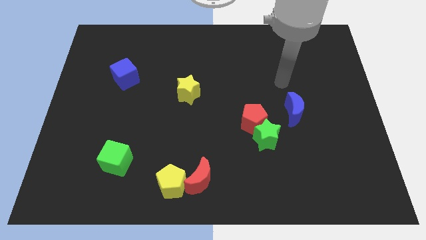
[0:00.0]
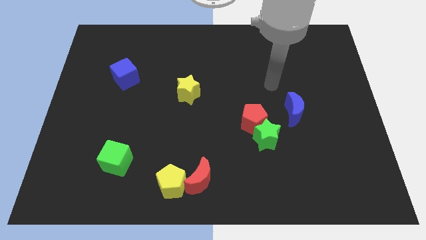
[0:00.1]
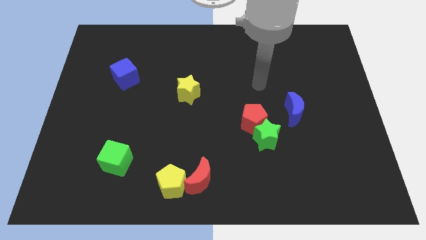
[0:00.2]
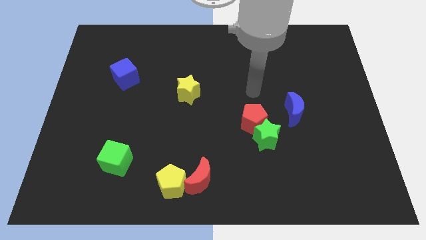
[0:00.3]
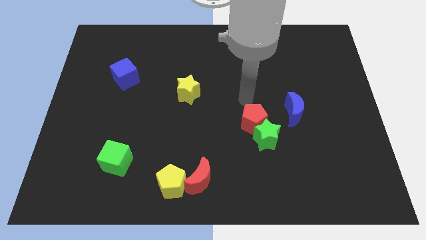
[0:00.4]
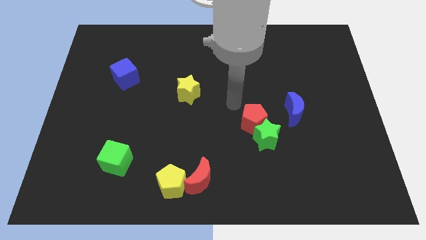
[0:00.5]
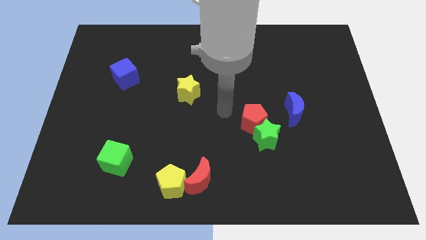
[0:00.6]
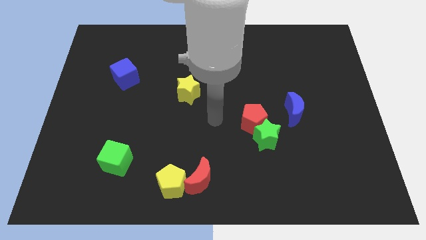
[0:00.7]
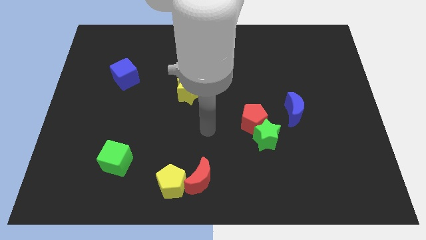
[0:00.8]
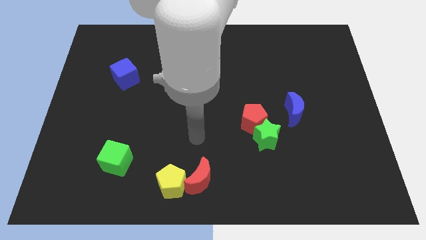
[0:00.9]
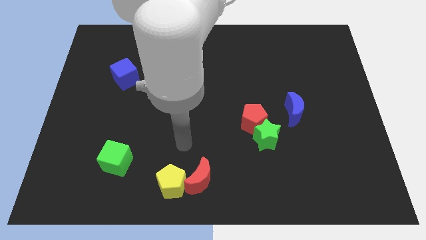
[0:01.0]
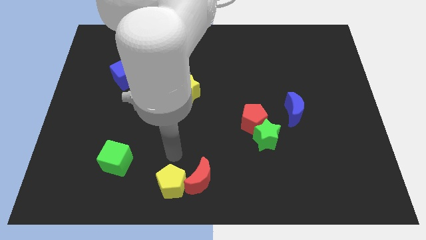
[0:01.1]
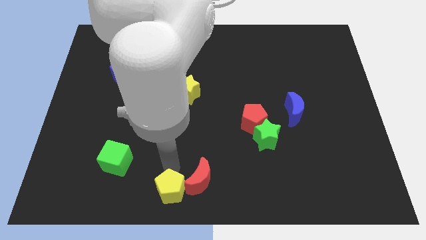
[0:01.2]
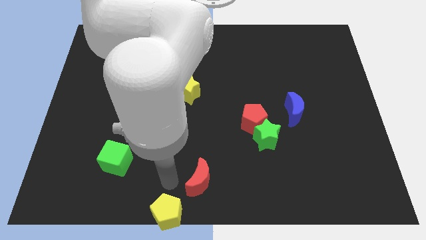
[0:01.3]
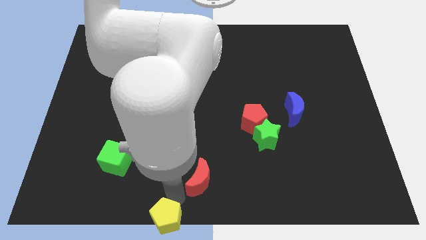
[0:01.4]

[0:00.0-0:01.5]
move the red moon away from the yellow pentagon

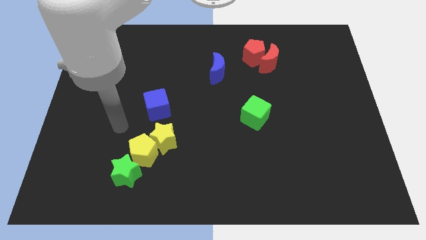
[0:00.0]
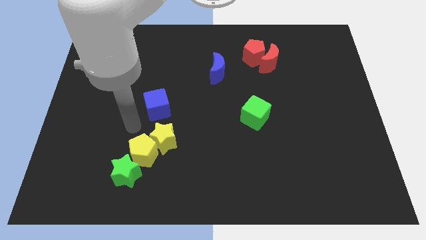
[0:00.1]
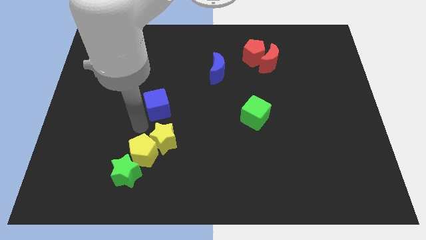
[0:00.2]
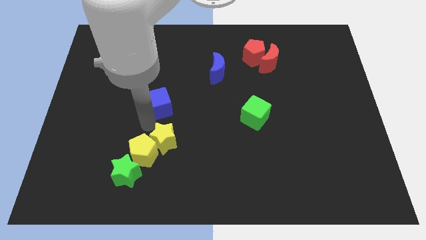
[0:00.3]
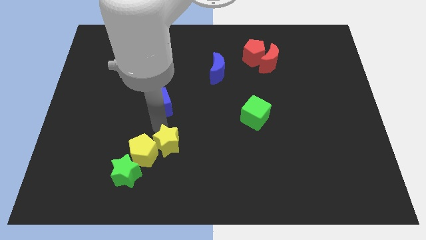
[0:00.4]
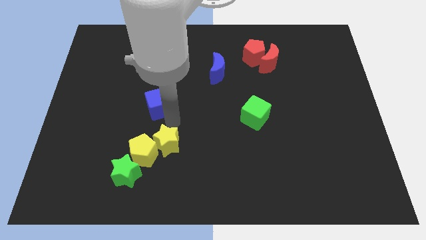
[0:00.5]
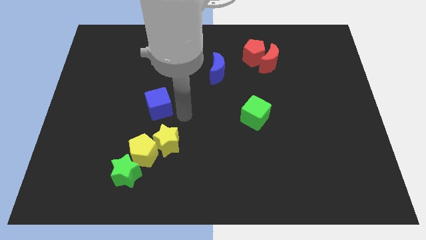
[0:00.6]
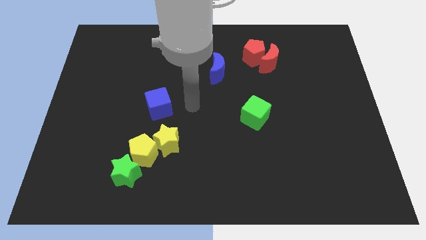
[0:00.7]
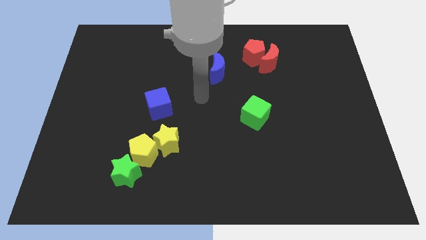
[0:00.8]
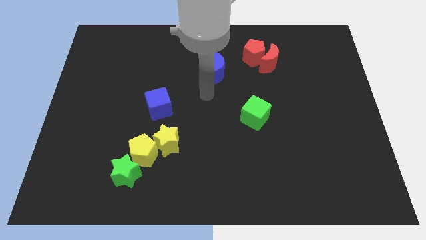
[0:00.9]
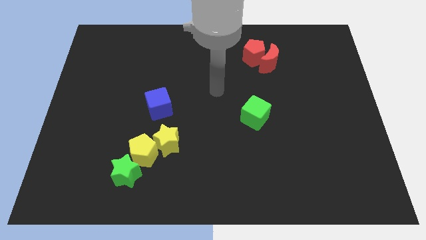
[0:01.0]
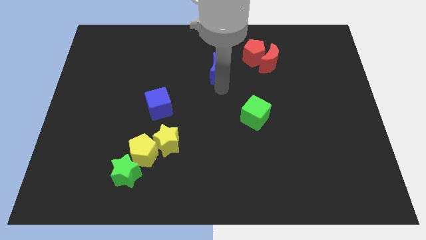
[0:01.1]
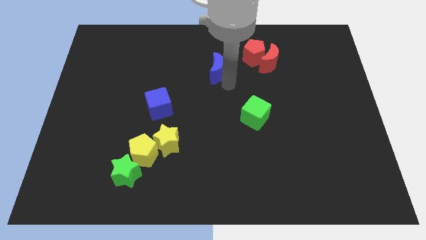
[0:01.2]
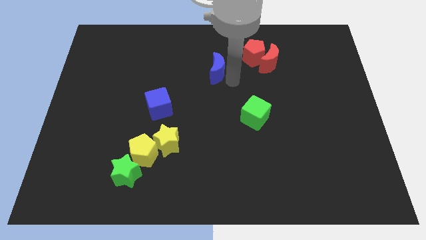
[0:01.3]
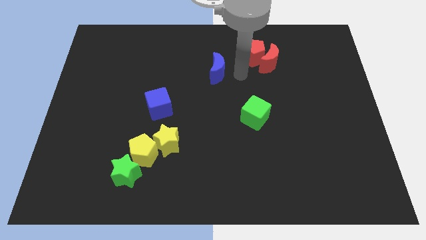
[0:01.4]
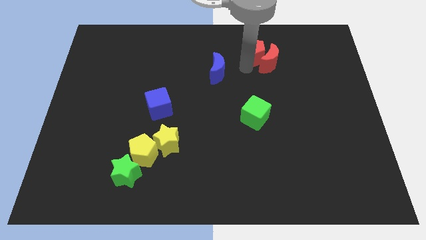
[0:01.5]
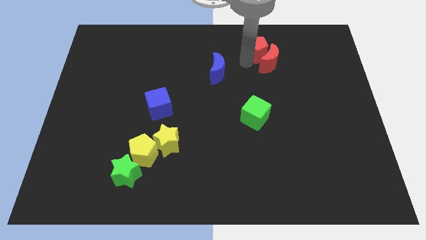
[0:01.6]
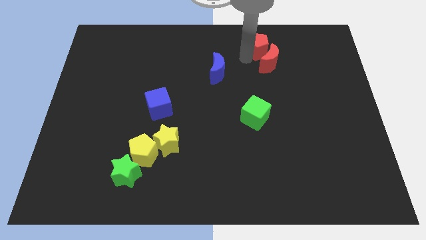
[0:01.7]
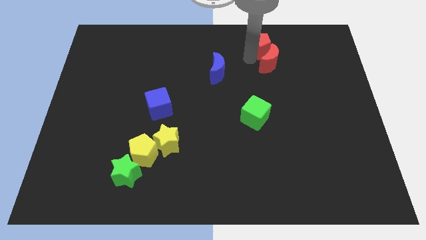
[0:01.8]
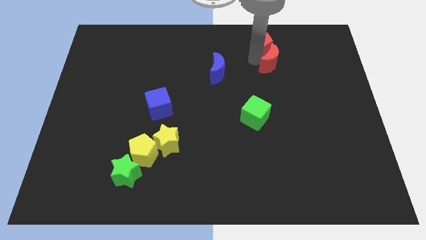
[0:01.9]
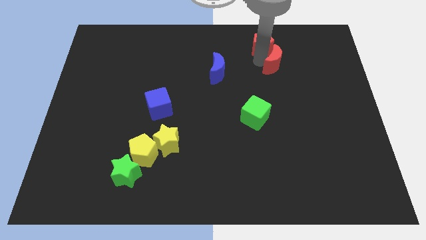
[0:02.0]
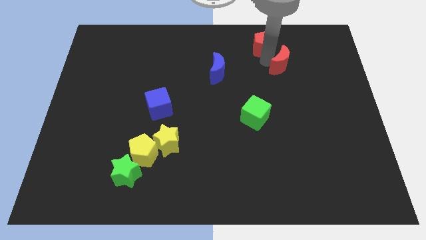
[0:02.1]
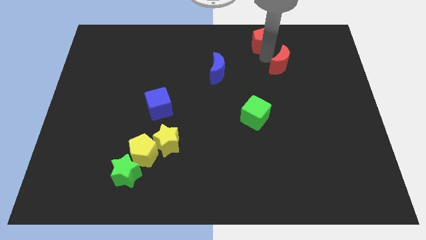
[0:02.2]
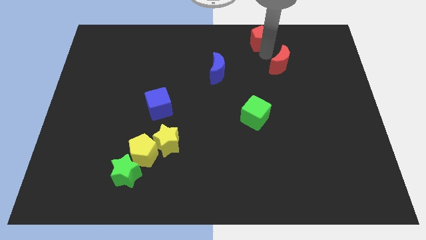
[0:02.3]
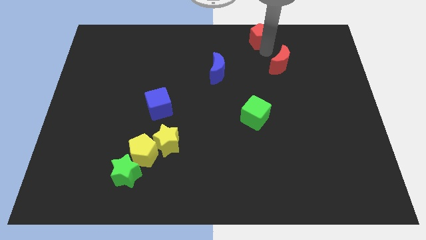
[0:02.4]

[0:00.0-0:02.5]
move the red moon away from the red pentagon

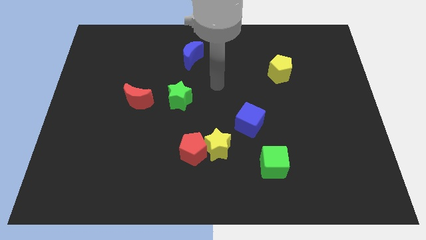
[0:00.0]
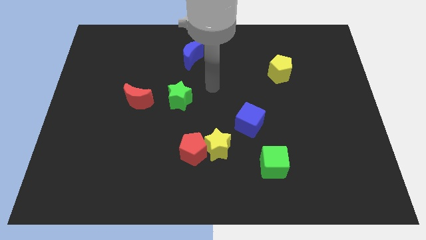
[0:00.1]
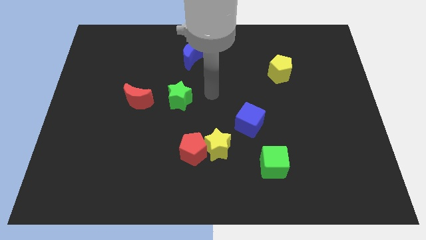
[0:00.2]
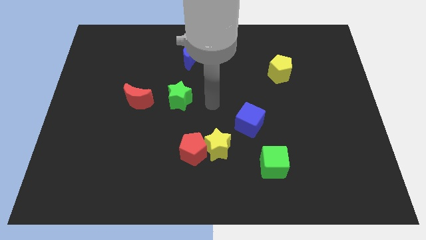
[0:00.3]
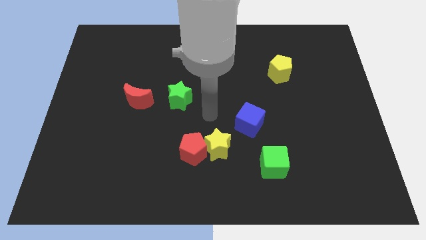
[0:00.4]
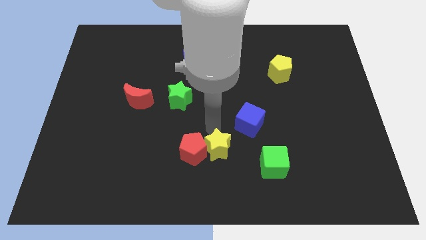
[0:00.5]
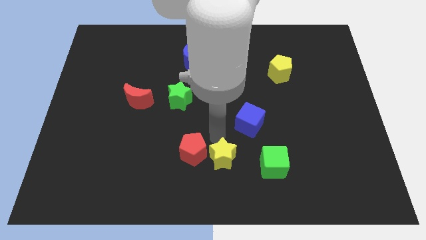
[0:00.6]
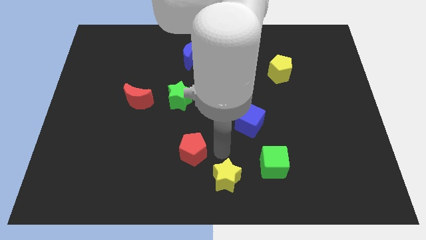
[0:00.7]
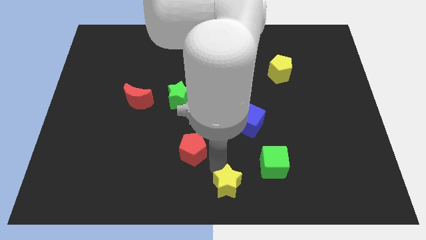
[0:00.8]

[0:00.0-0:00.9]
pull the red pentagon apart from the yellow star

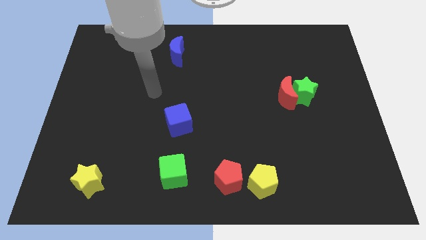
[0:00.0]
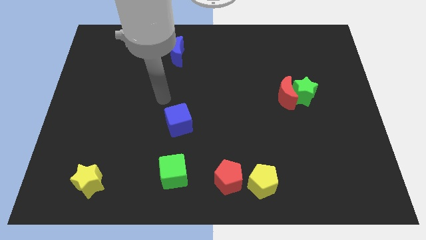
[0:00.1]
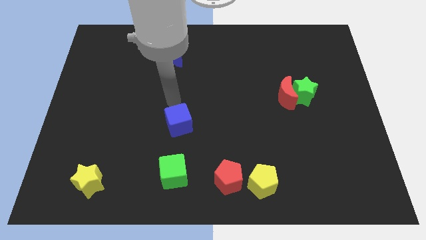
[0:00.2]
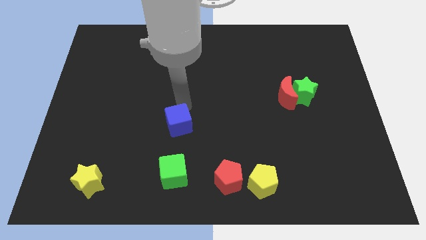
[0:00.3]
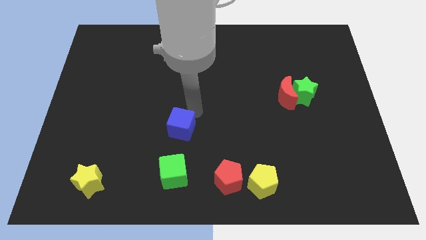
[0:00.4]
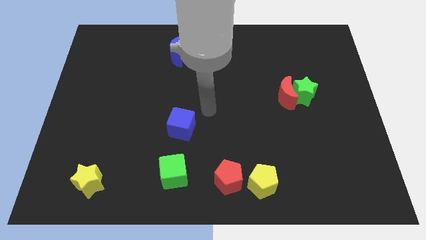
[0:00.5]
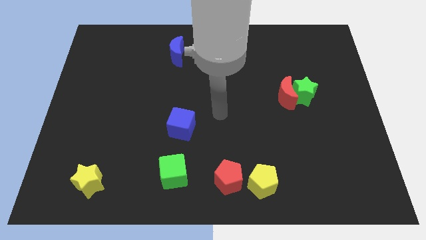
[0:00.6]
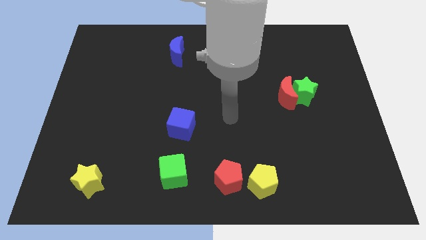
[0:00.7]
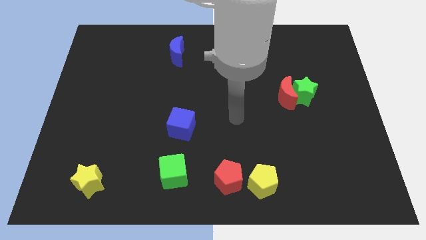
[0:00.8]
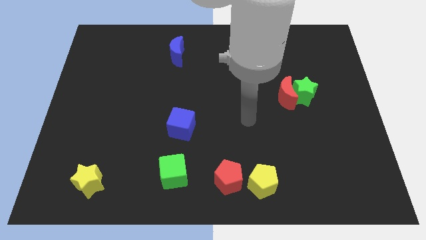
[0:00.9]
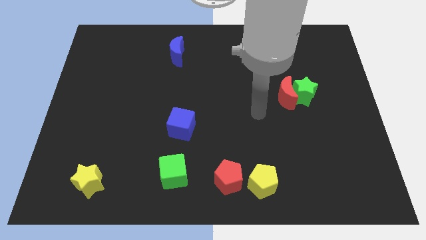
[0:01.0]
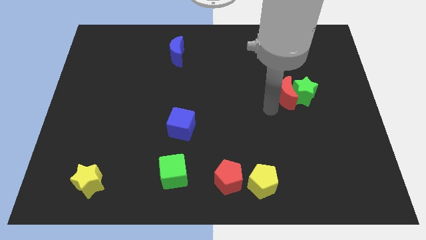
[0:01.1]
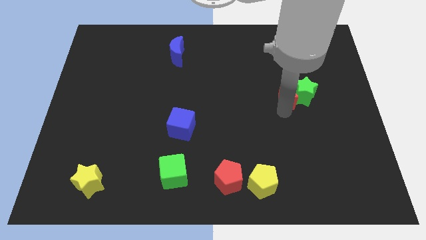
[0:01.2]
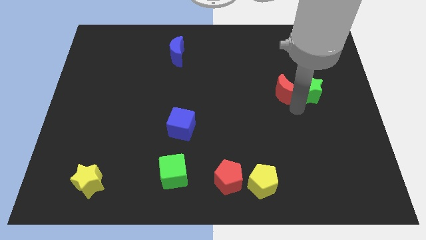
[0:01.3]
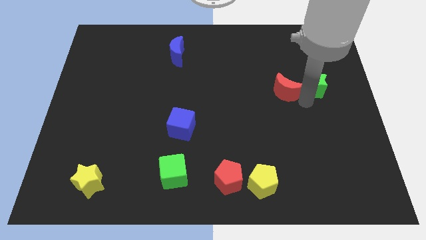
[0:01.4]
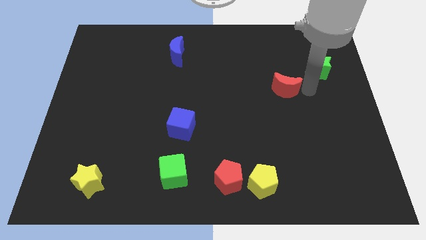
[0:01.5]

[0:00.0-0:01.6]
pull the red moon apart from the green star

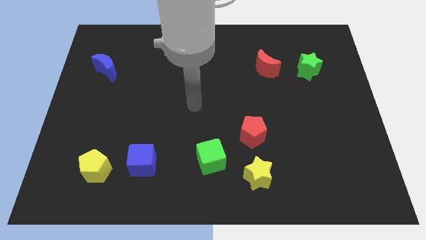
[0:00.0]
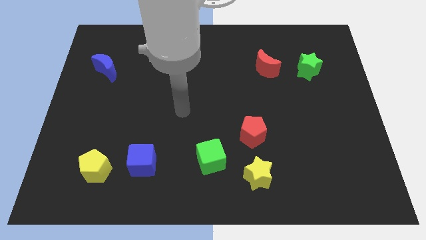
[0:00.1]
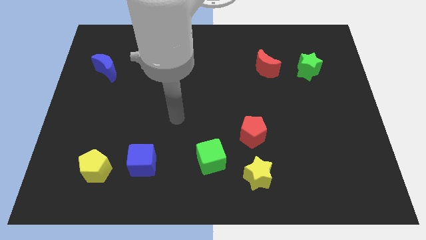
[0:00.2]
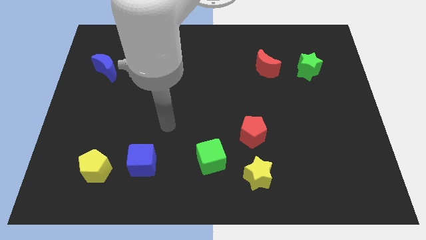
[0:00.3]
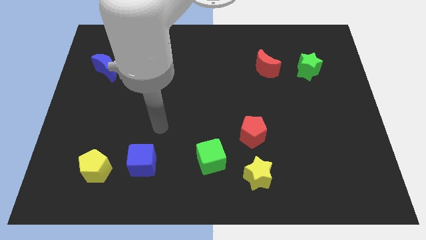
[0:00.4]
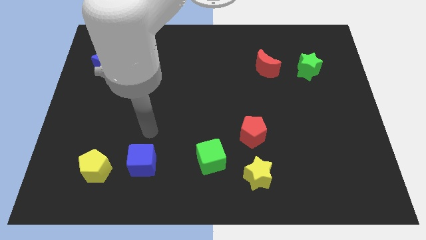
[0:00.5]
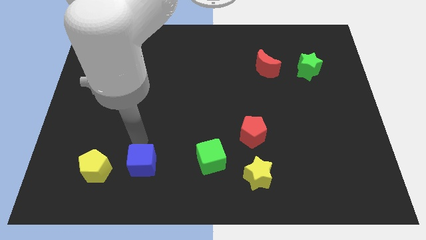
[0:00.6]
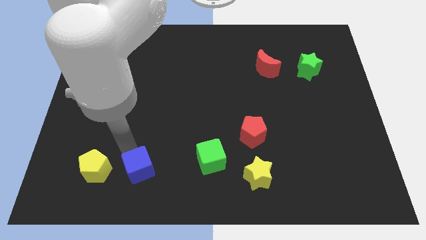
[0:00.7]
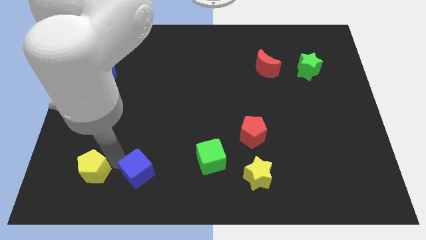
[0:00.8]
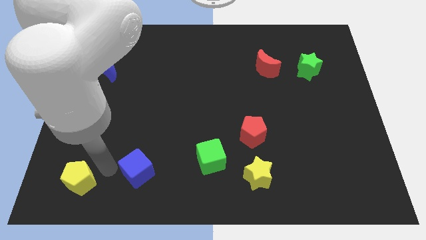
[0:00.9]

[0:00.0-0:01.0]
separate the blue cube from the yellow pentagon

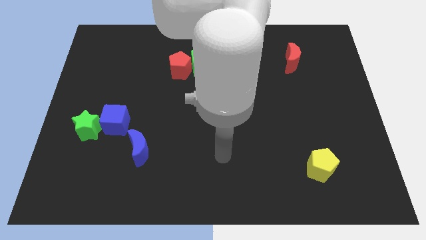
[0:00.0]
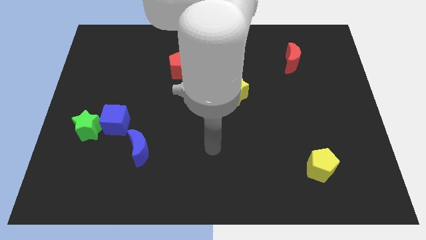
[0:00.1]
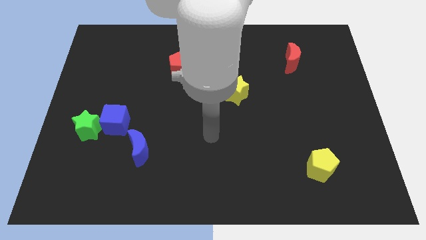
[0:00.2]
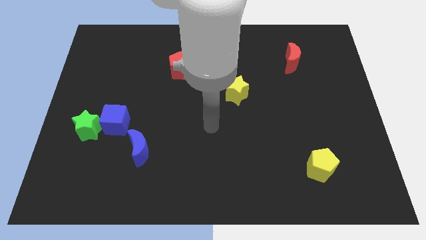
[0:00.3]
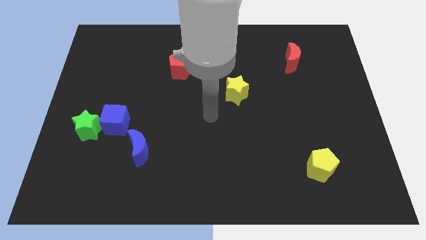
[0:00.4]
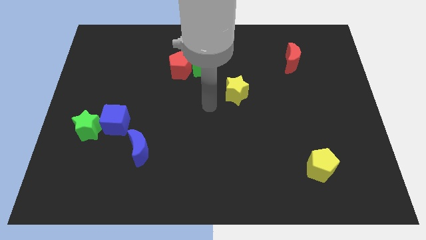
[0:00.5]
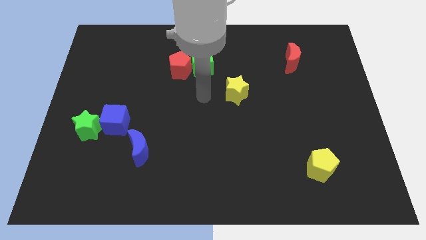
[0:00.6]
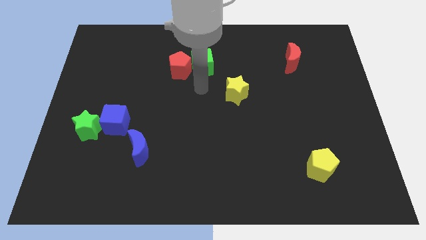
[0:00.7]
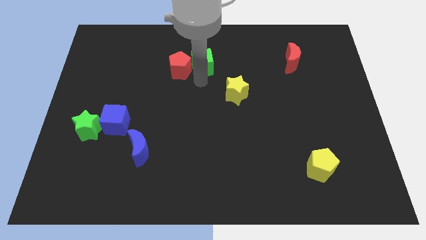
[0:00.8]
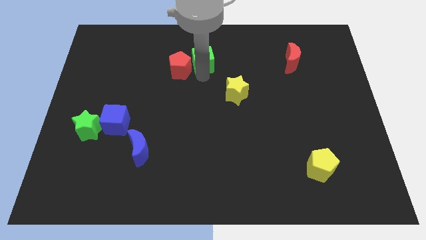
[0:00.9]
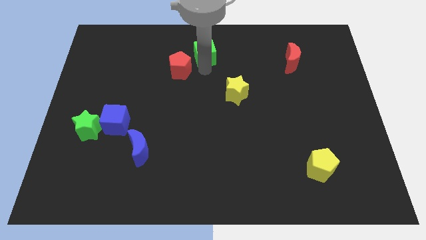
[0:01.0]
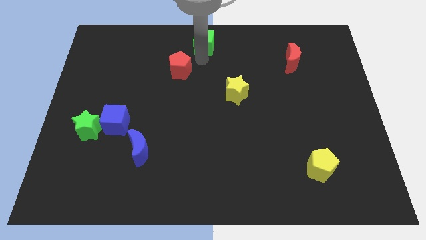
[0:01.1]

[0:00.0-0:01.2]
pull the red pentagon apart from the green cube

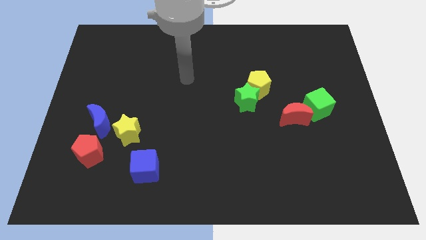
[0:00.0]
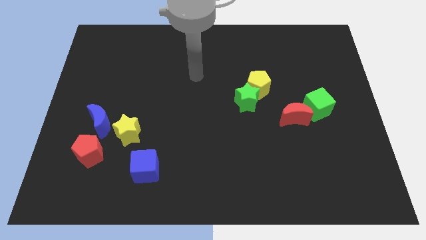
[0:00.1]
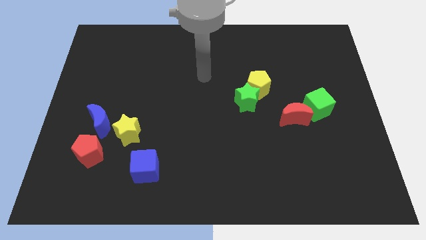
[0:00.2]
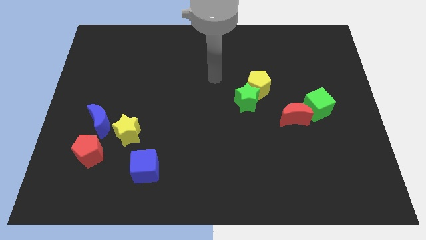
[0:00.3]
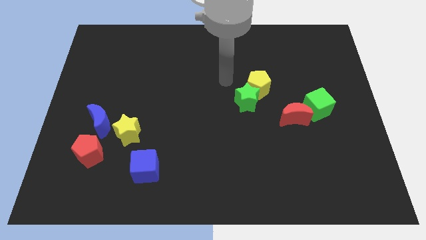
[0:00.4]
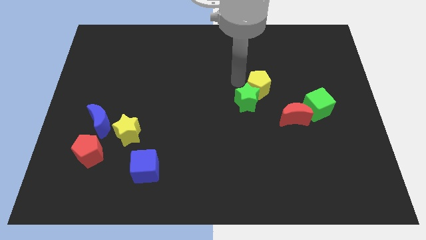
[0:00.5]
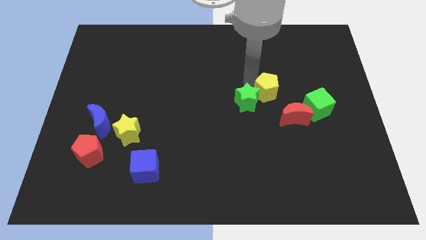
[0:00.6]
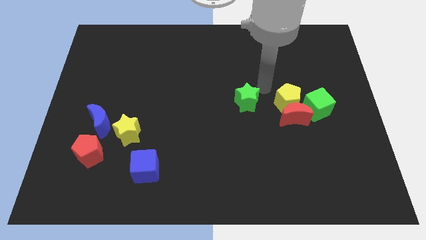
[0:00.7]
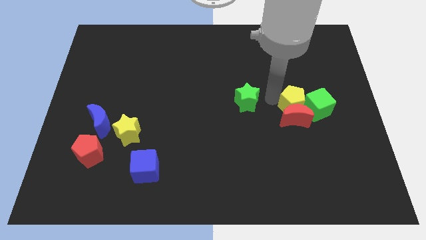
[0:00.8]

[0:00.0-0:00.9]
separate the green star from the yellow pentagon
